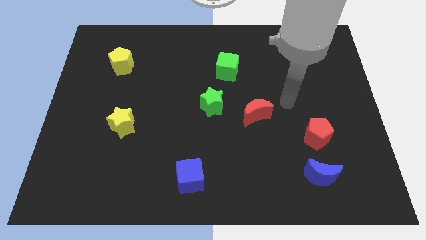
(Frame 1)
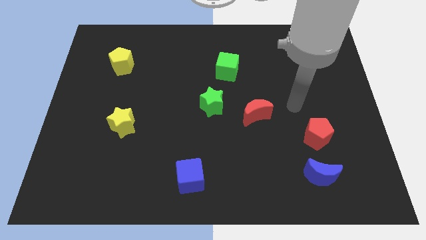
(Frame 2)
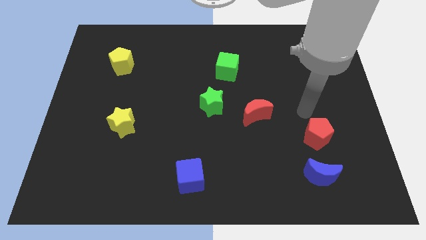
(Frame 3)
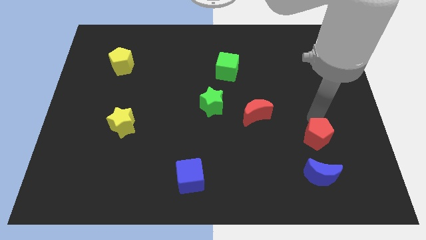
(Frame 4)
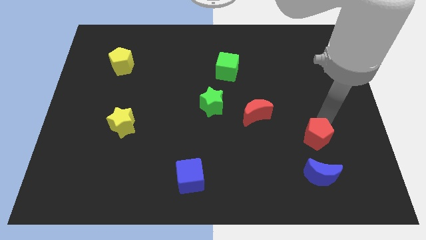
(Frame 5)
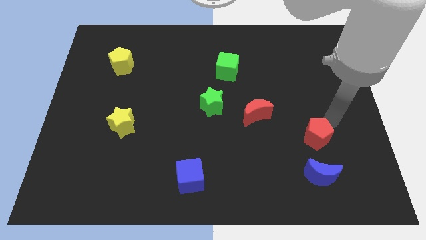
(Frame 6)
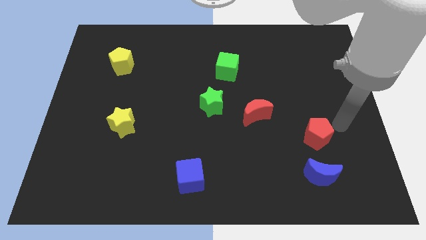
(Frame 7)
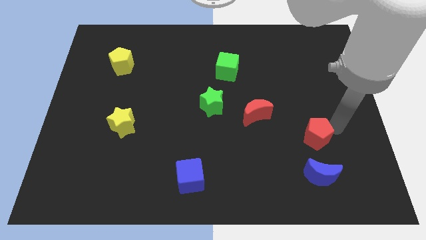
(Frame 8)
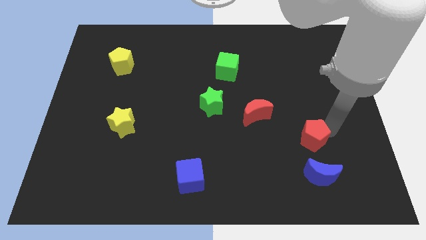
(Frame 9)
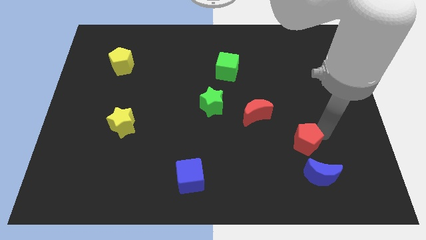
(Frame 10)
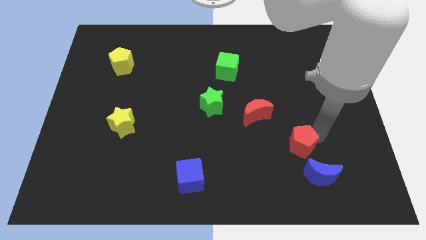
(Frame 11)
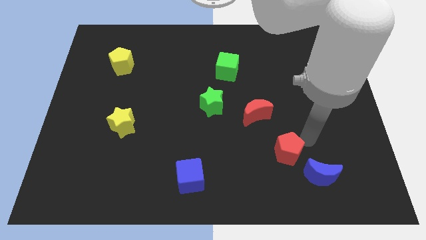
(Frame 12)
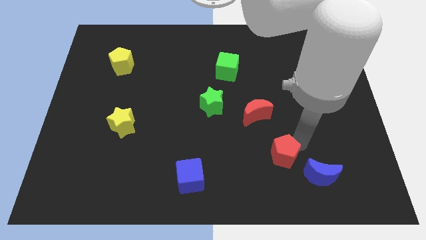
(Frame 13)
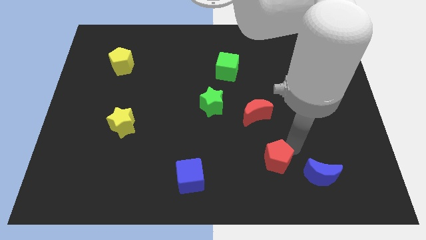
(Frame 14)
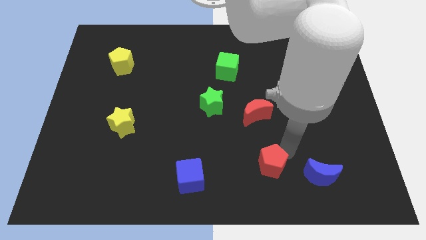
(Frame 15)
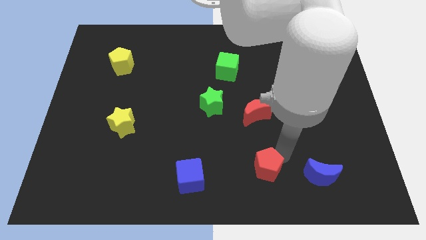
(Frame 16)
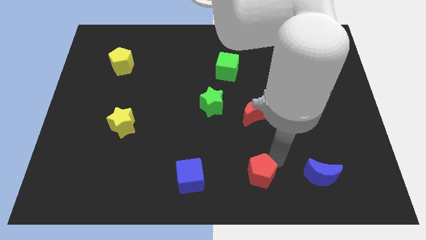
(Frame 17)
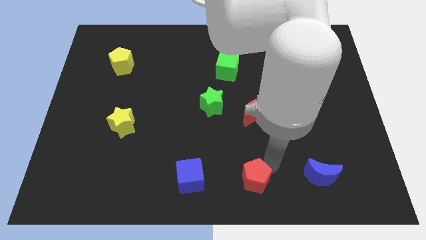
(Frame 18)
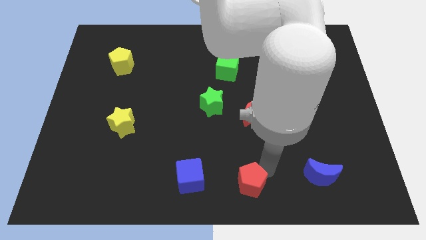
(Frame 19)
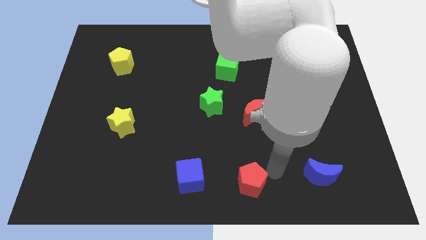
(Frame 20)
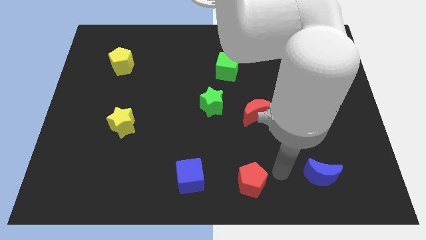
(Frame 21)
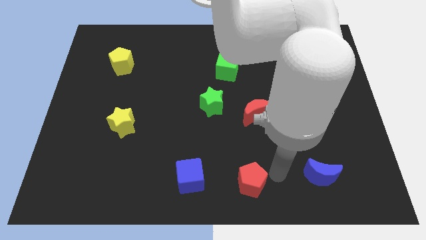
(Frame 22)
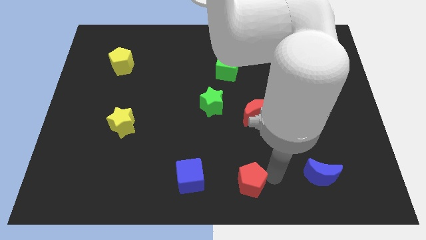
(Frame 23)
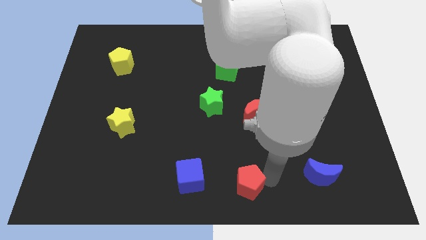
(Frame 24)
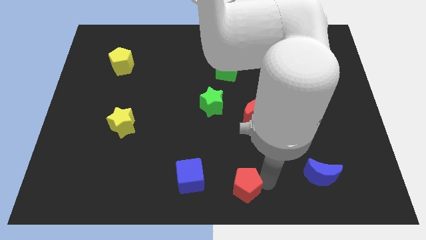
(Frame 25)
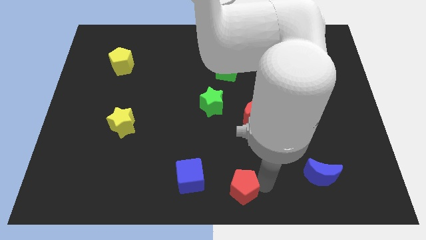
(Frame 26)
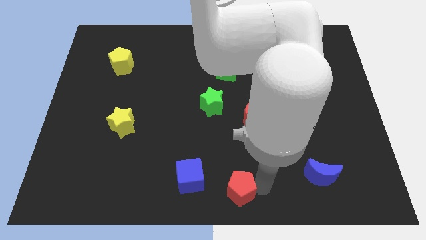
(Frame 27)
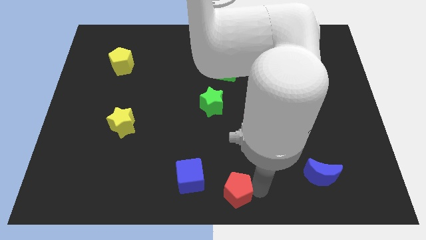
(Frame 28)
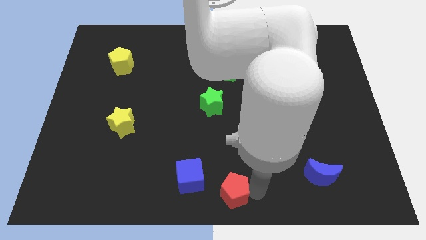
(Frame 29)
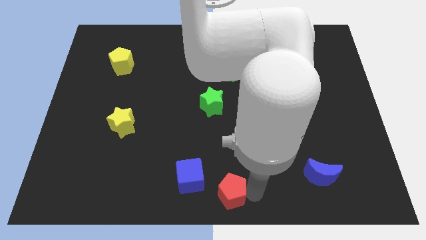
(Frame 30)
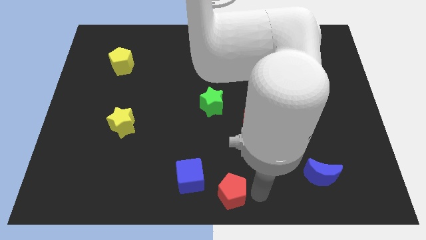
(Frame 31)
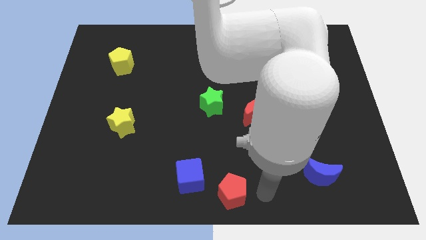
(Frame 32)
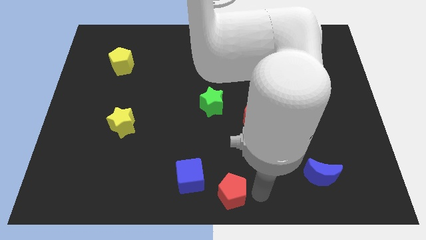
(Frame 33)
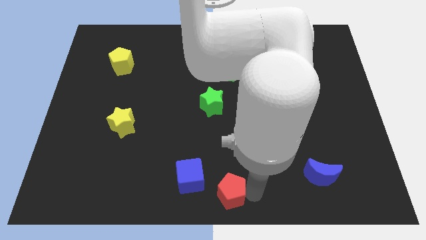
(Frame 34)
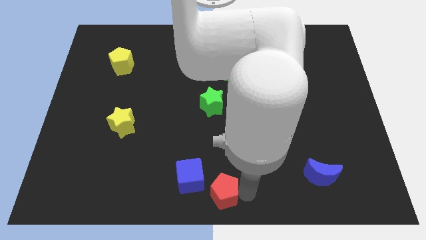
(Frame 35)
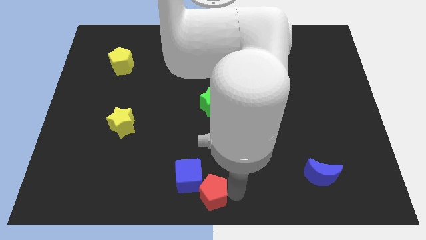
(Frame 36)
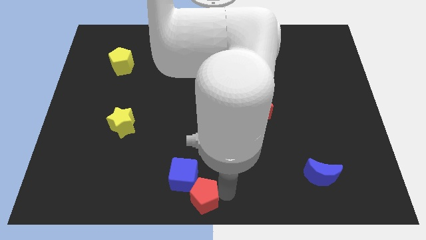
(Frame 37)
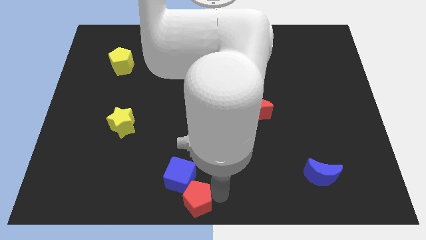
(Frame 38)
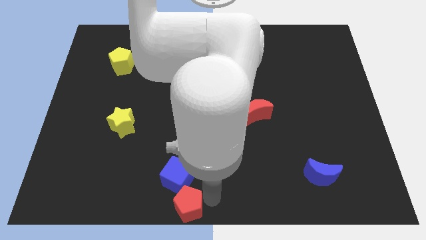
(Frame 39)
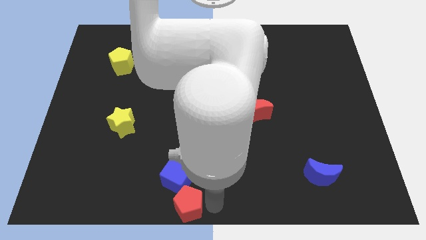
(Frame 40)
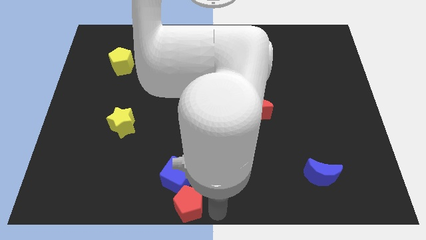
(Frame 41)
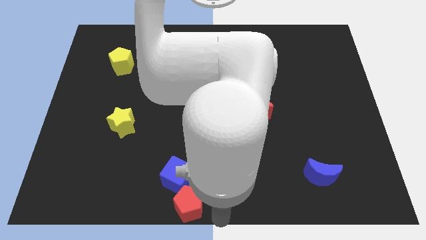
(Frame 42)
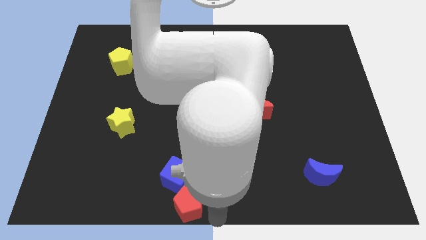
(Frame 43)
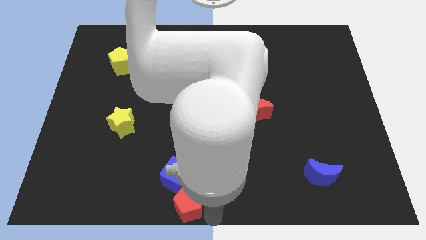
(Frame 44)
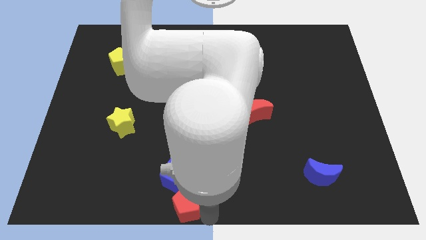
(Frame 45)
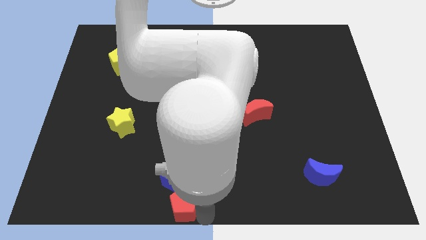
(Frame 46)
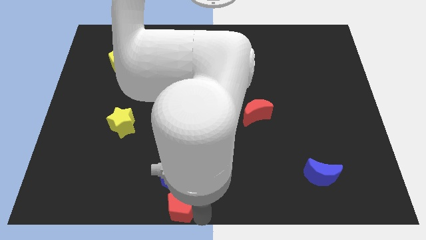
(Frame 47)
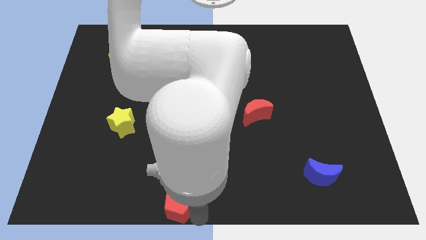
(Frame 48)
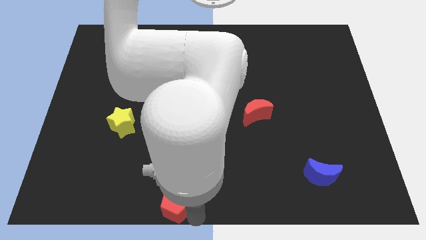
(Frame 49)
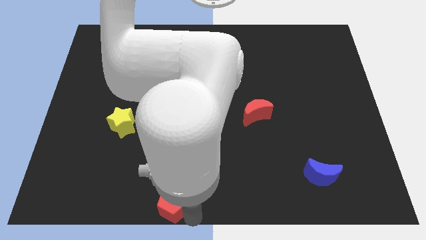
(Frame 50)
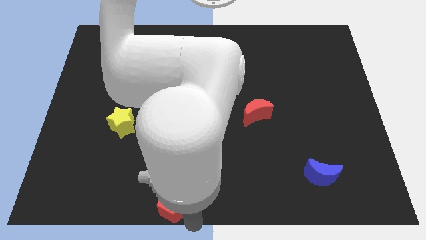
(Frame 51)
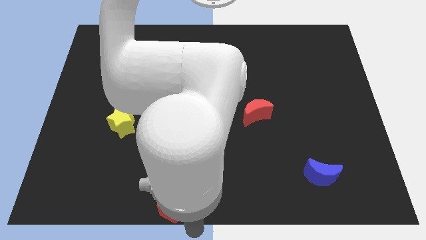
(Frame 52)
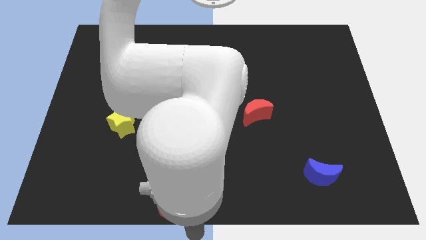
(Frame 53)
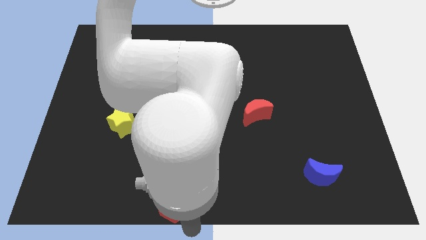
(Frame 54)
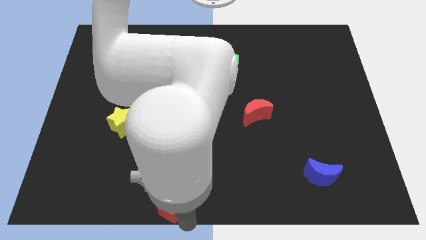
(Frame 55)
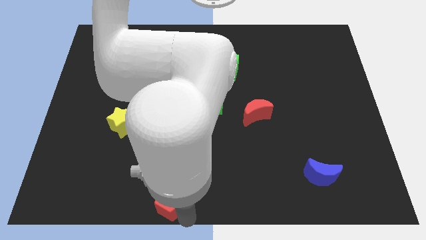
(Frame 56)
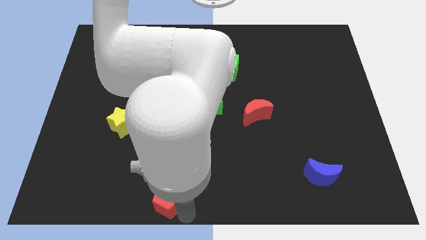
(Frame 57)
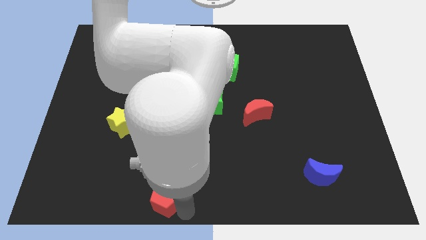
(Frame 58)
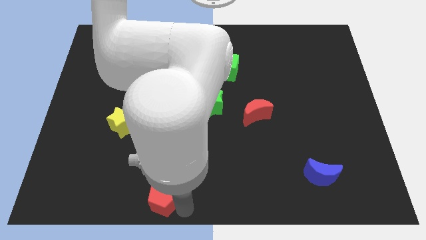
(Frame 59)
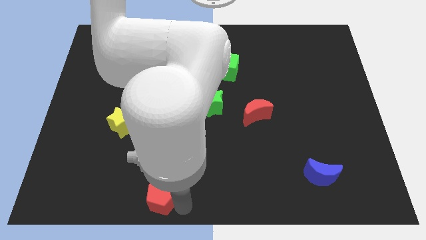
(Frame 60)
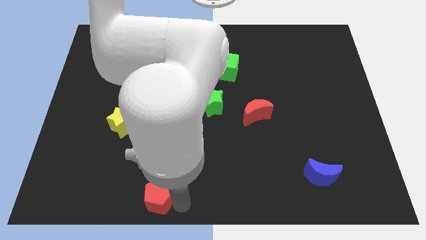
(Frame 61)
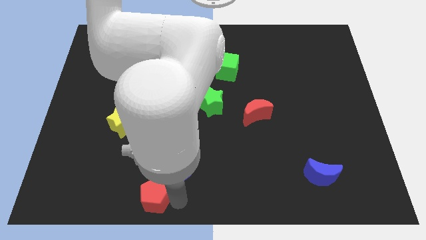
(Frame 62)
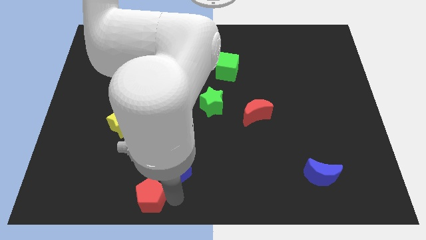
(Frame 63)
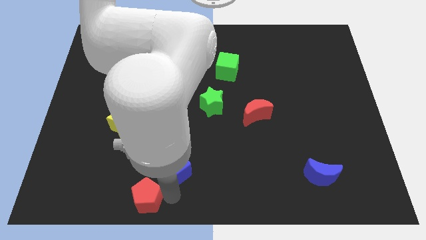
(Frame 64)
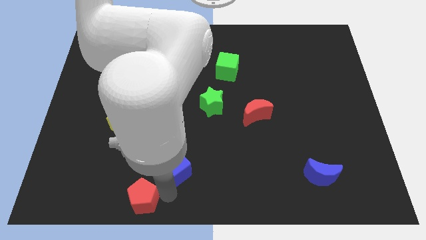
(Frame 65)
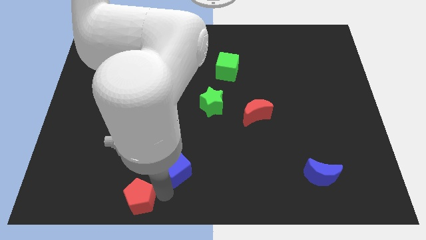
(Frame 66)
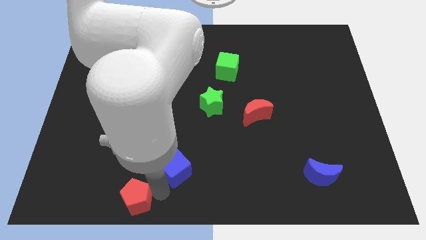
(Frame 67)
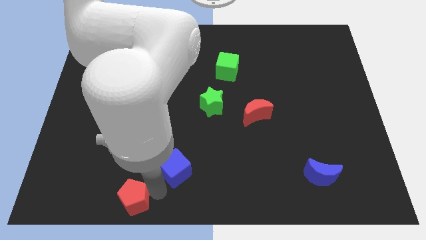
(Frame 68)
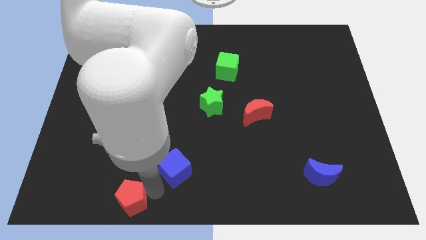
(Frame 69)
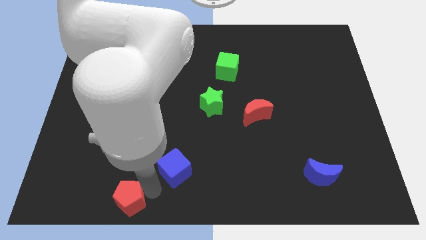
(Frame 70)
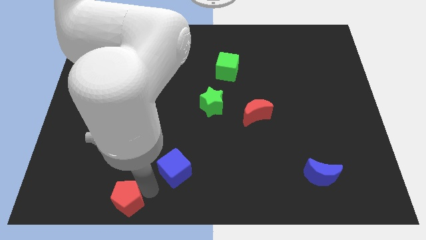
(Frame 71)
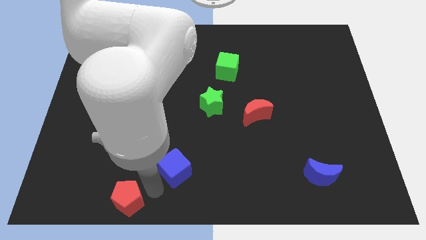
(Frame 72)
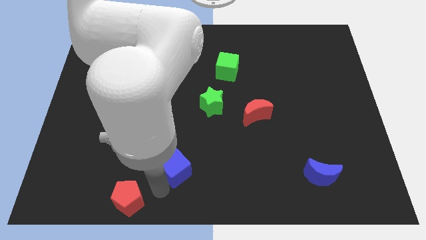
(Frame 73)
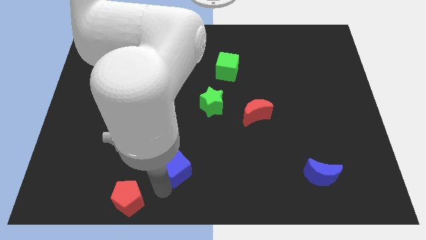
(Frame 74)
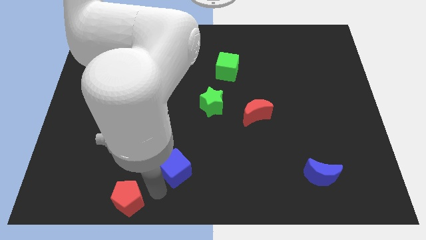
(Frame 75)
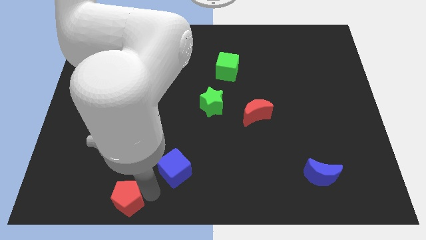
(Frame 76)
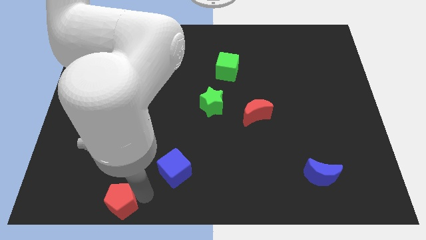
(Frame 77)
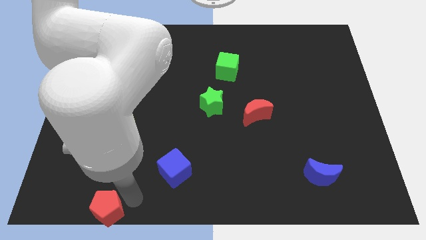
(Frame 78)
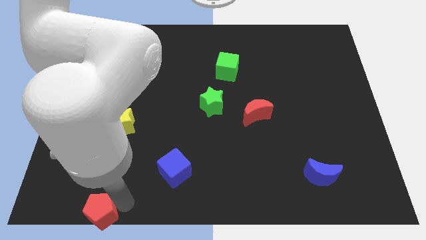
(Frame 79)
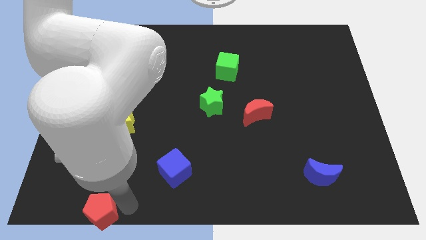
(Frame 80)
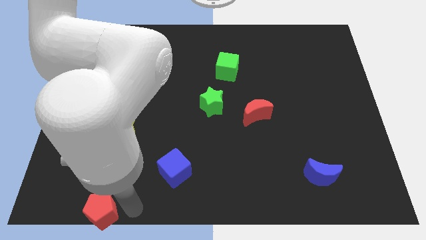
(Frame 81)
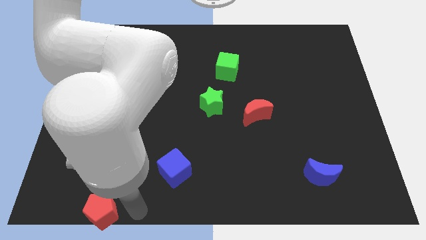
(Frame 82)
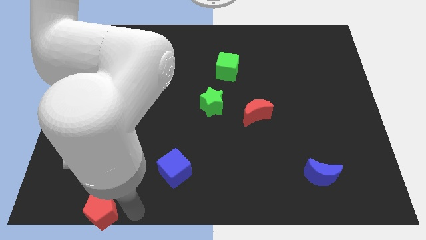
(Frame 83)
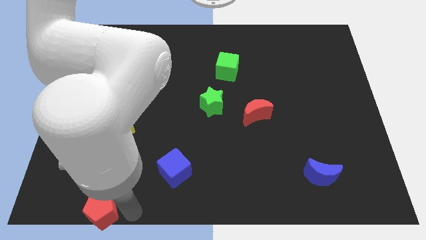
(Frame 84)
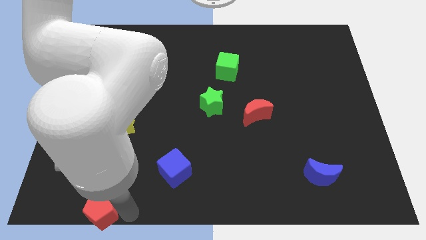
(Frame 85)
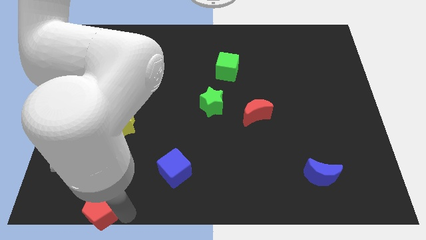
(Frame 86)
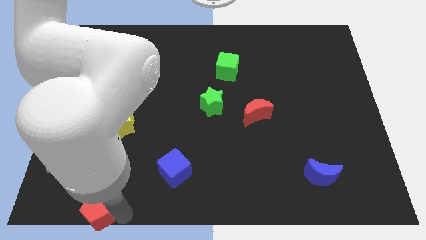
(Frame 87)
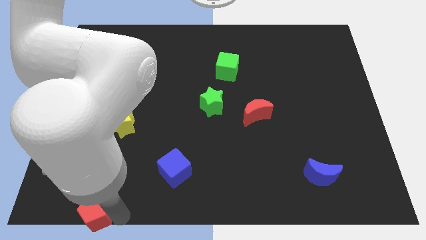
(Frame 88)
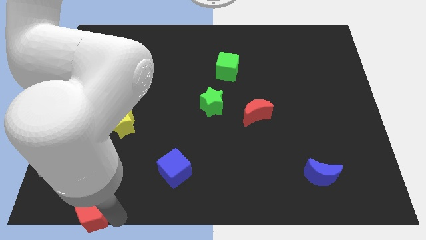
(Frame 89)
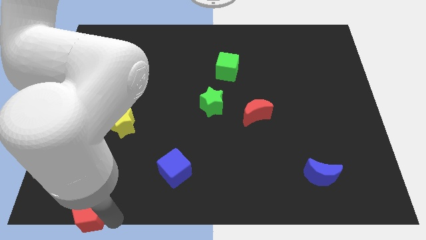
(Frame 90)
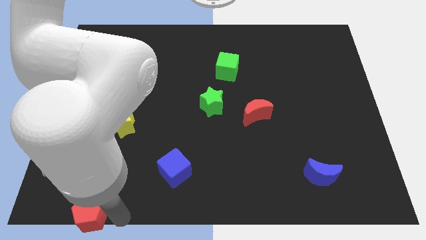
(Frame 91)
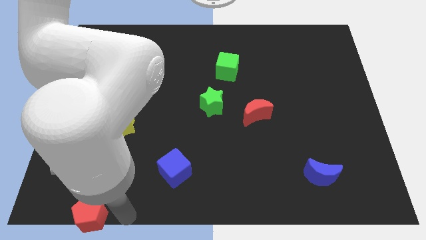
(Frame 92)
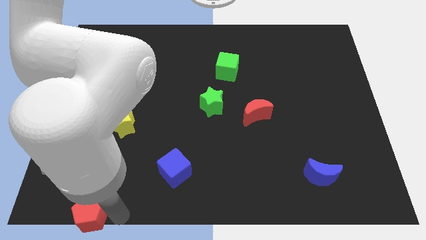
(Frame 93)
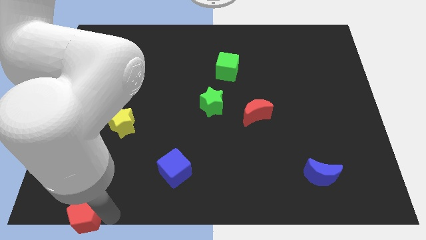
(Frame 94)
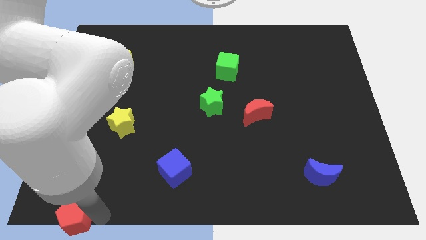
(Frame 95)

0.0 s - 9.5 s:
slide the red pentagon to the lower left corner
